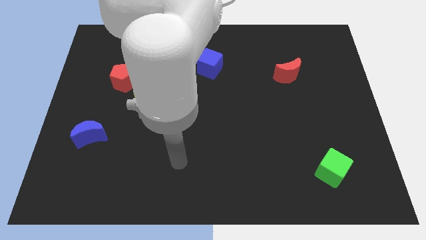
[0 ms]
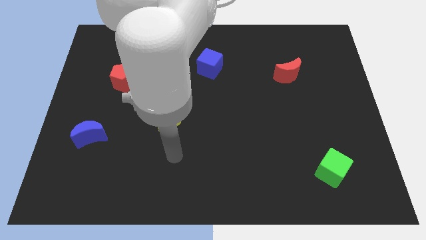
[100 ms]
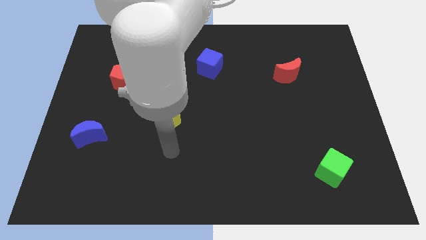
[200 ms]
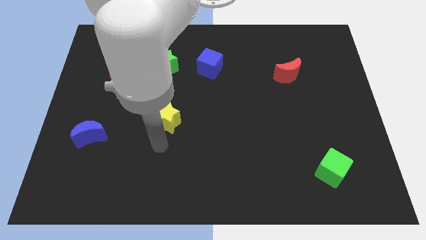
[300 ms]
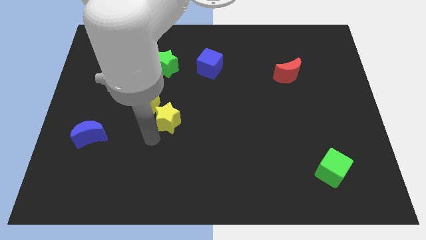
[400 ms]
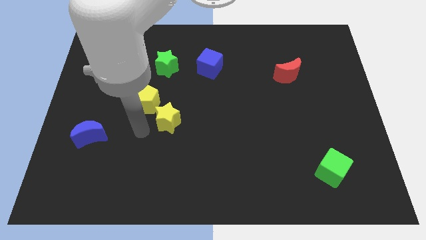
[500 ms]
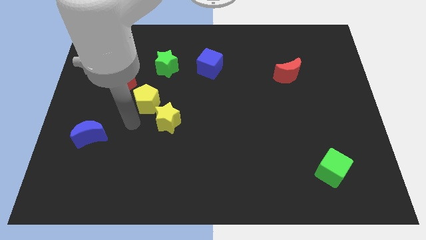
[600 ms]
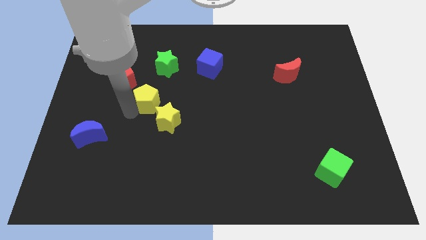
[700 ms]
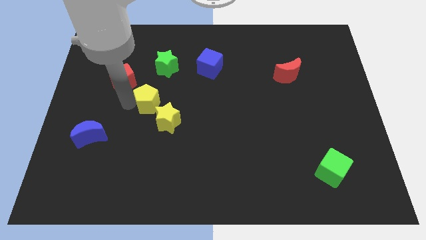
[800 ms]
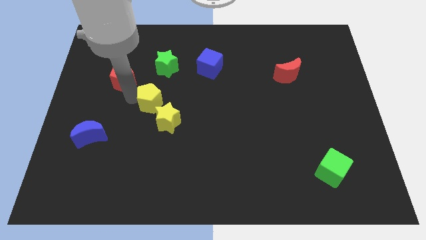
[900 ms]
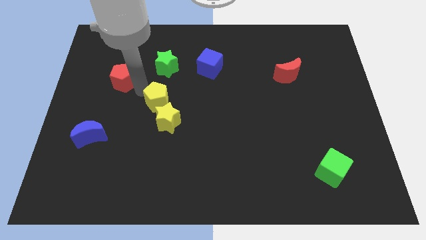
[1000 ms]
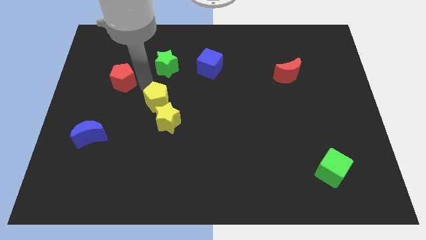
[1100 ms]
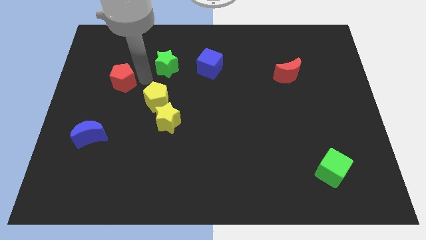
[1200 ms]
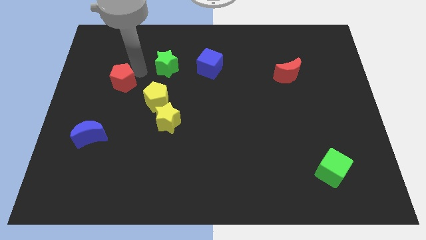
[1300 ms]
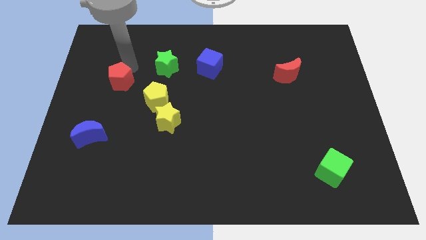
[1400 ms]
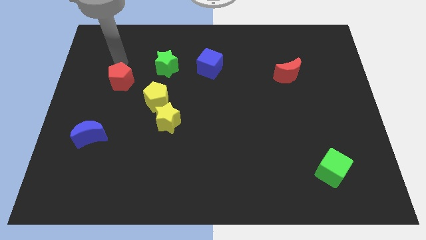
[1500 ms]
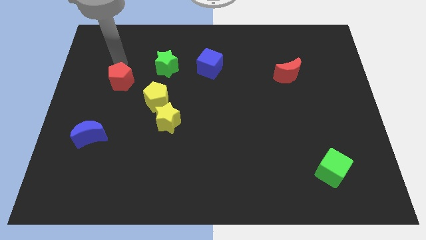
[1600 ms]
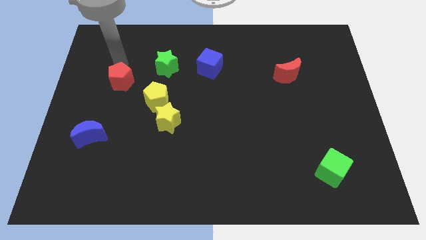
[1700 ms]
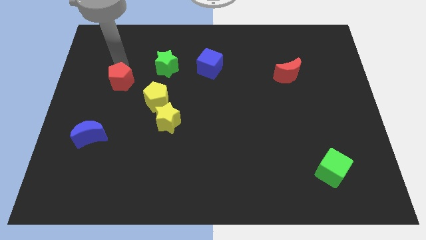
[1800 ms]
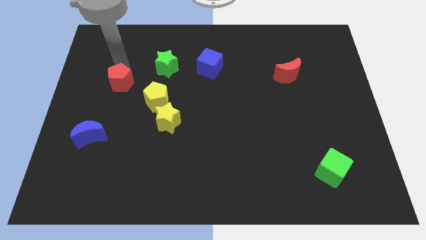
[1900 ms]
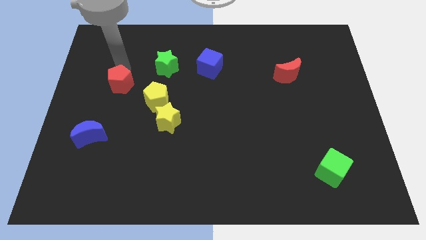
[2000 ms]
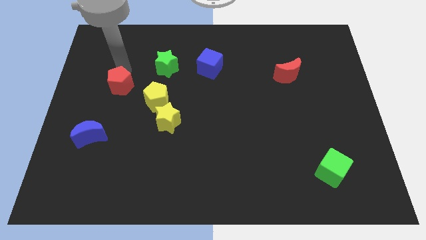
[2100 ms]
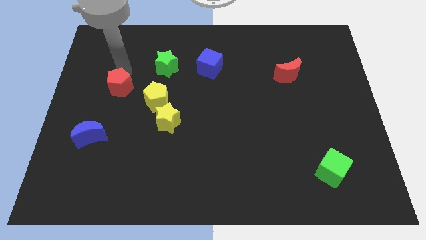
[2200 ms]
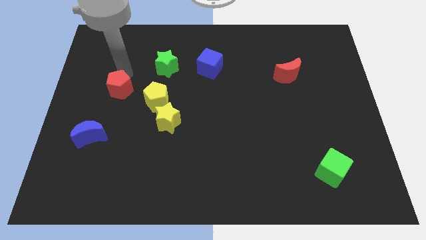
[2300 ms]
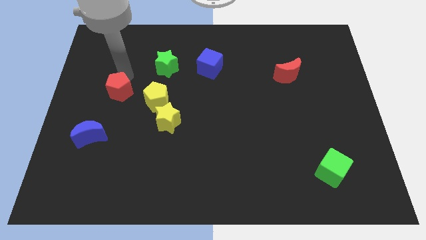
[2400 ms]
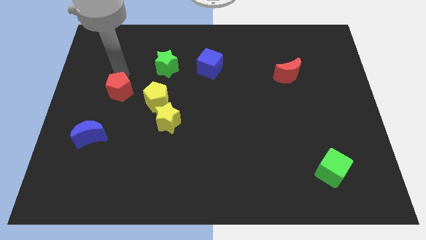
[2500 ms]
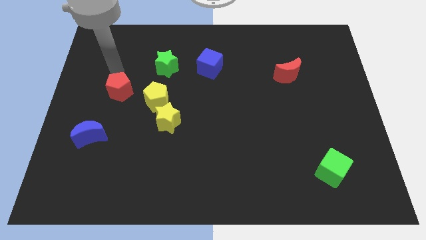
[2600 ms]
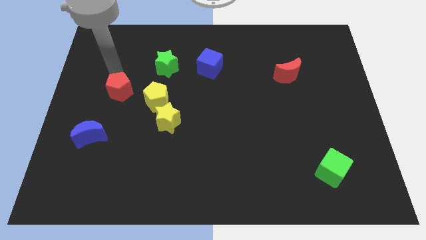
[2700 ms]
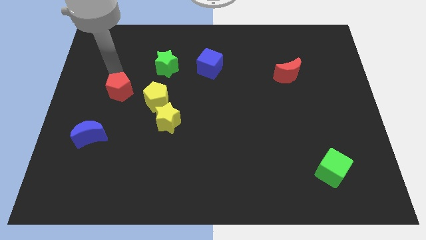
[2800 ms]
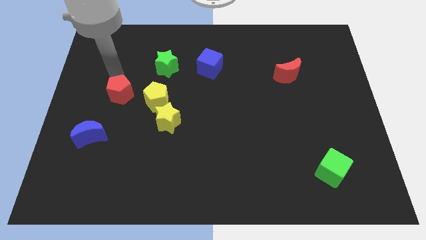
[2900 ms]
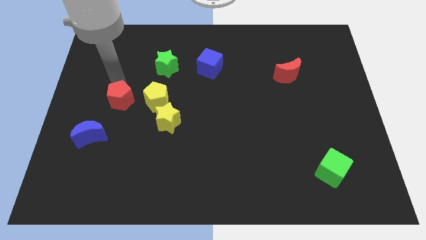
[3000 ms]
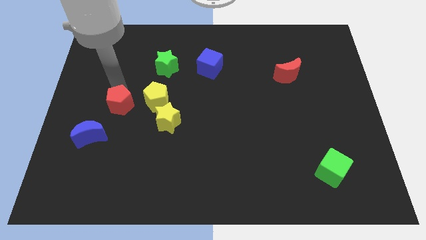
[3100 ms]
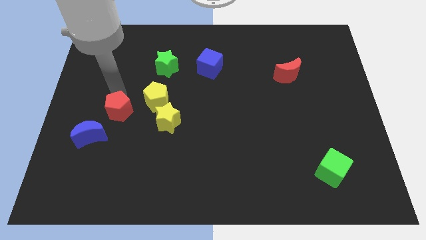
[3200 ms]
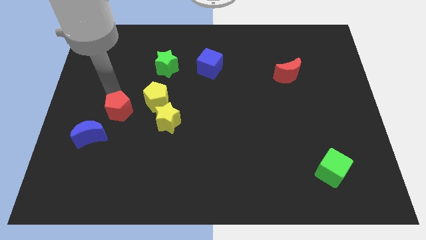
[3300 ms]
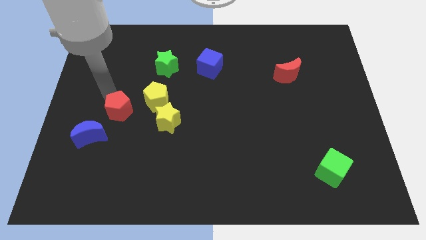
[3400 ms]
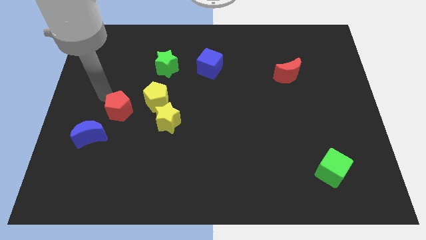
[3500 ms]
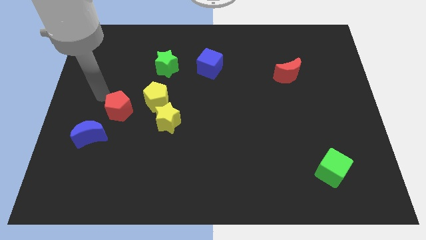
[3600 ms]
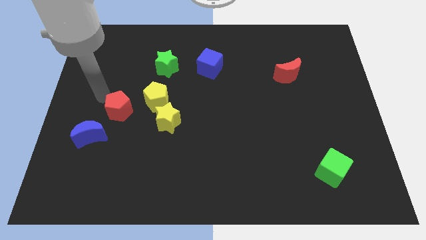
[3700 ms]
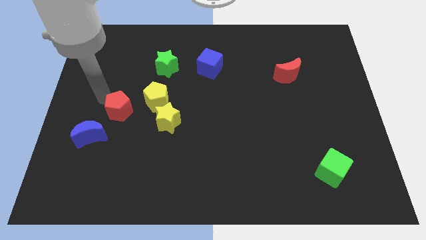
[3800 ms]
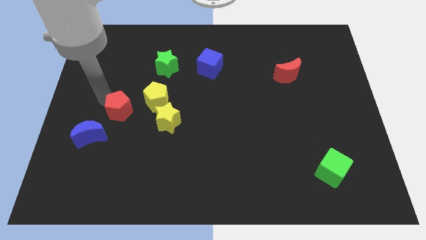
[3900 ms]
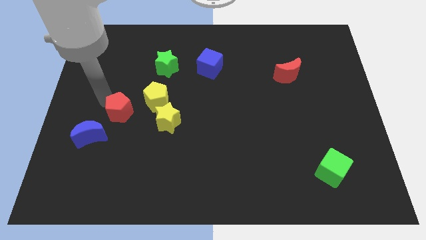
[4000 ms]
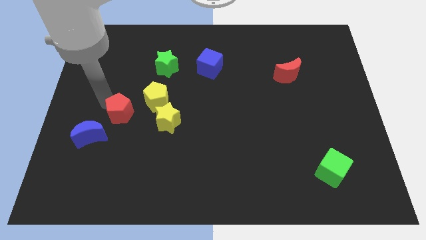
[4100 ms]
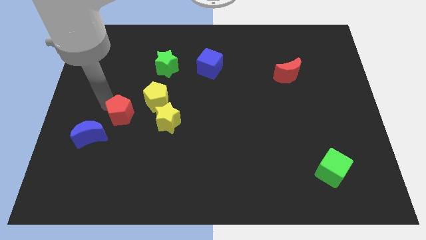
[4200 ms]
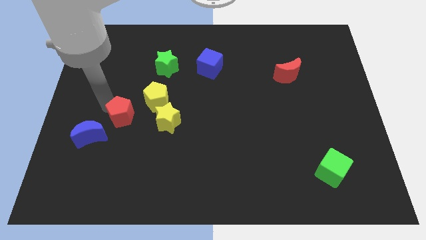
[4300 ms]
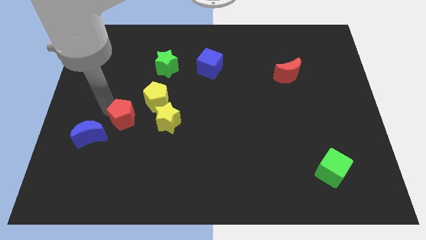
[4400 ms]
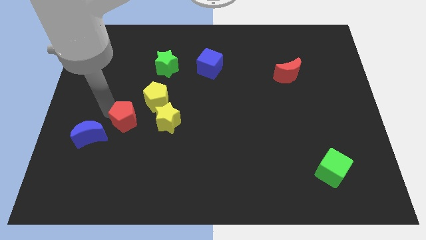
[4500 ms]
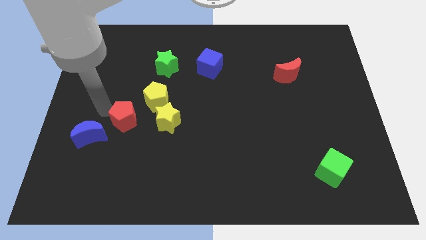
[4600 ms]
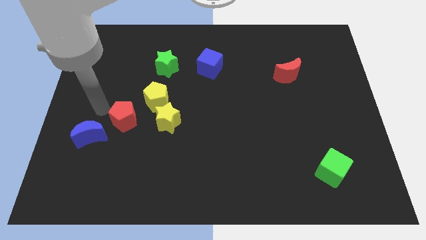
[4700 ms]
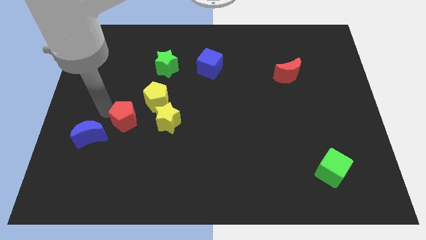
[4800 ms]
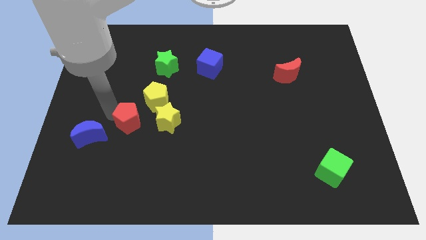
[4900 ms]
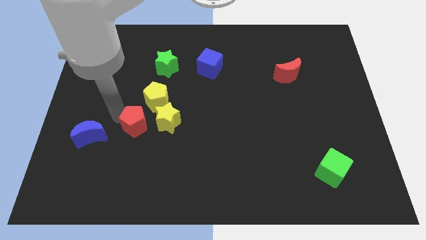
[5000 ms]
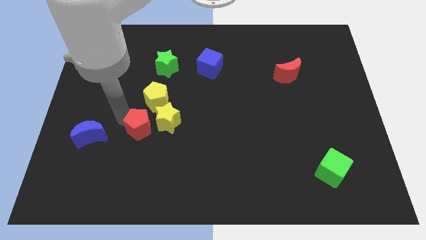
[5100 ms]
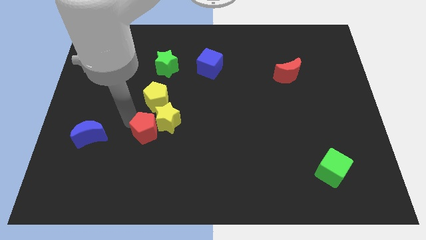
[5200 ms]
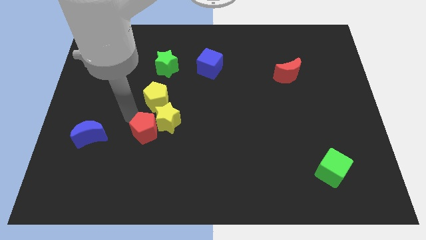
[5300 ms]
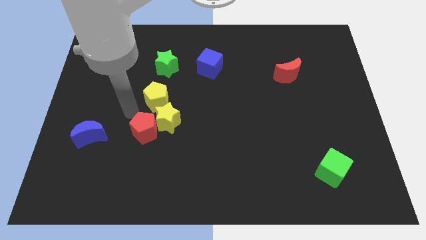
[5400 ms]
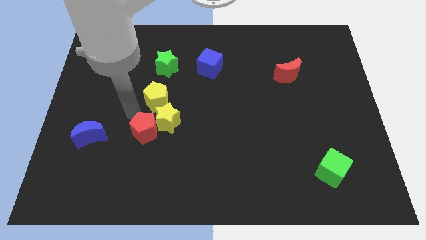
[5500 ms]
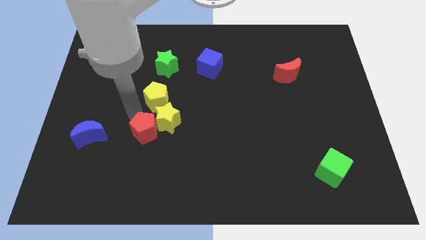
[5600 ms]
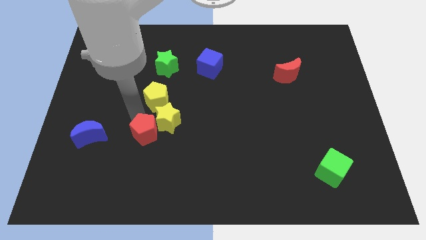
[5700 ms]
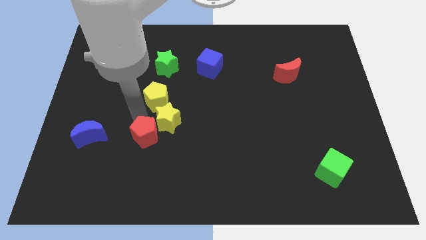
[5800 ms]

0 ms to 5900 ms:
push the red pentagon to the bottom of the yellow star

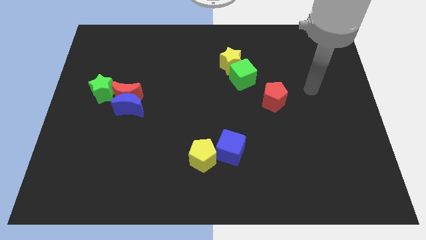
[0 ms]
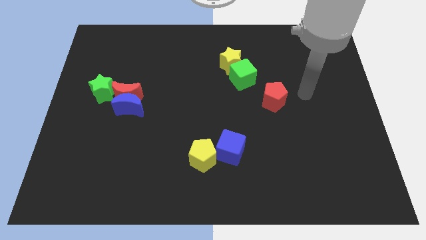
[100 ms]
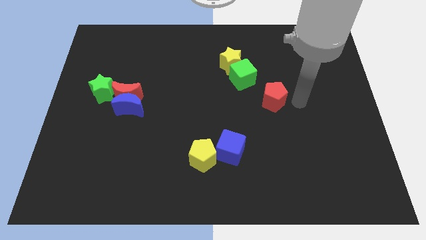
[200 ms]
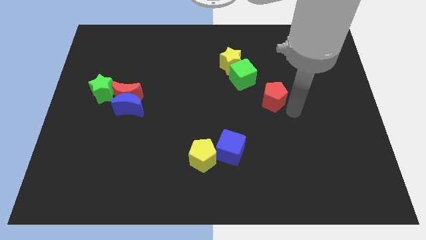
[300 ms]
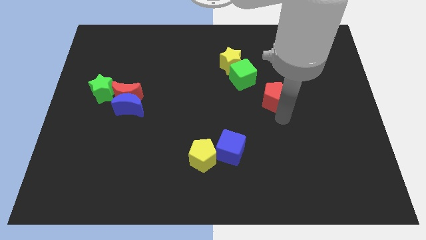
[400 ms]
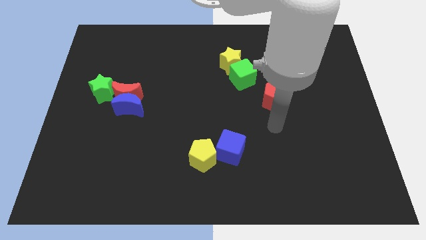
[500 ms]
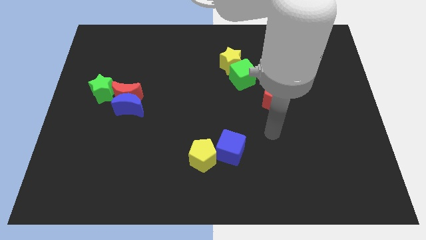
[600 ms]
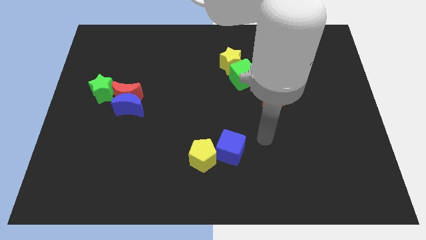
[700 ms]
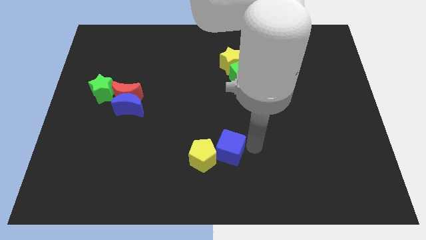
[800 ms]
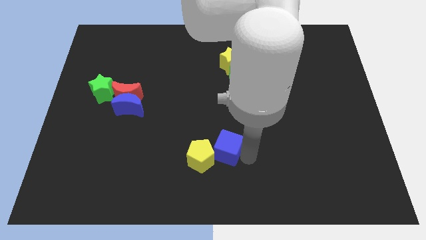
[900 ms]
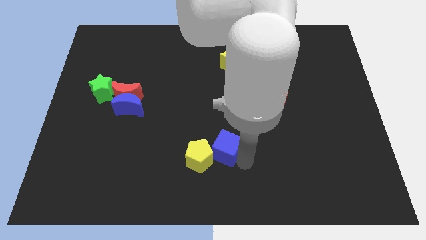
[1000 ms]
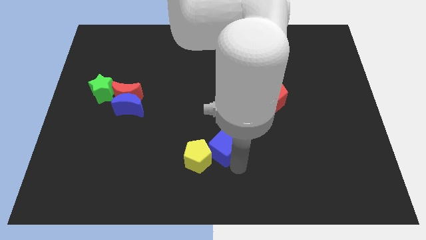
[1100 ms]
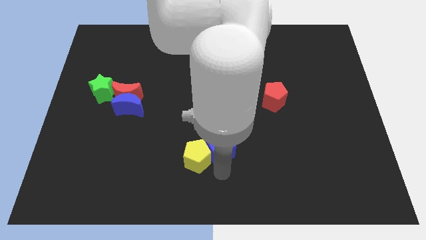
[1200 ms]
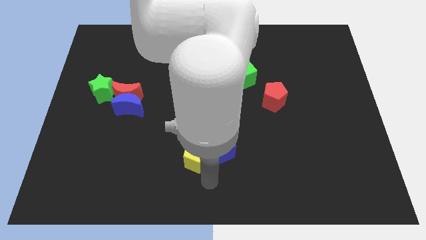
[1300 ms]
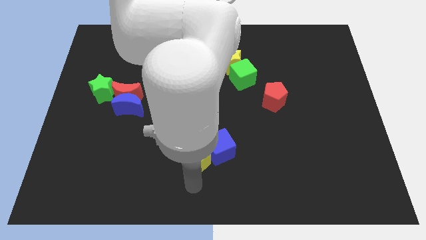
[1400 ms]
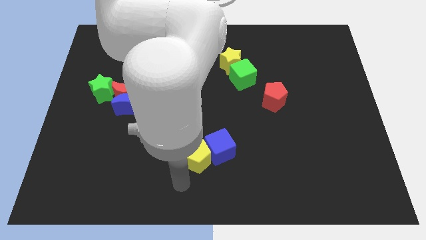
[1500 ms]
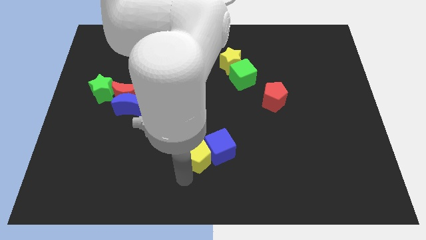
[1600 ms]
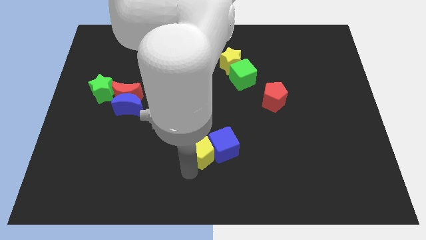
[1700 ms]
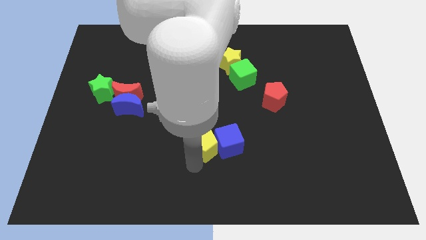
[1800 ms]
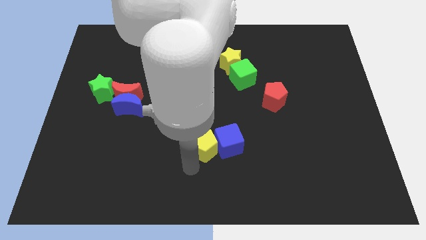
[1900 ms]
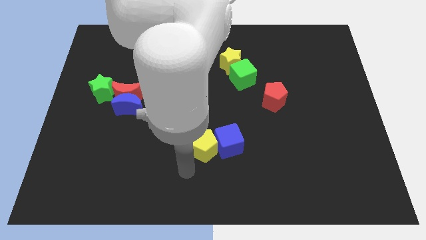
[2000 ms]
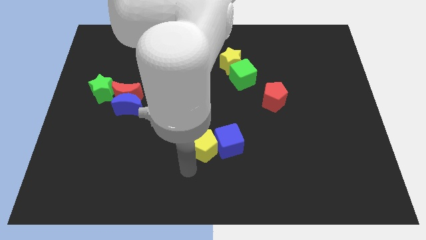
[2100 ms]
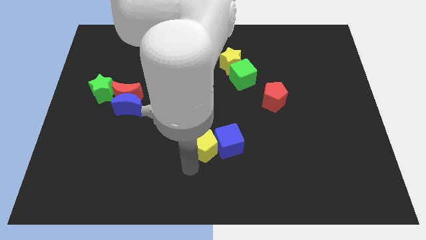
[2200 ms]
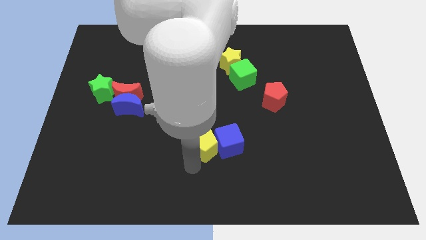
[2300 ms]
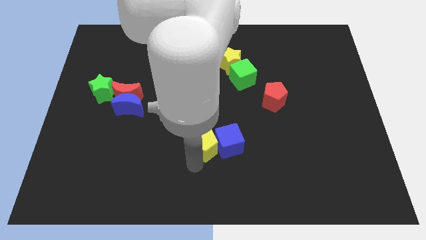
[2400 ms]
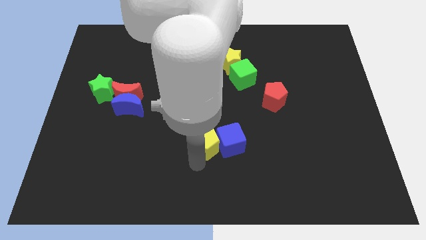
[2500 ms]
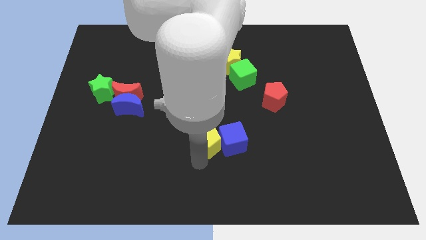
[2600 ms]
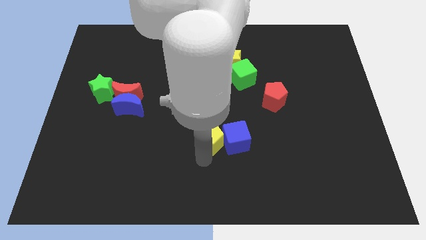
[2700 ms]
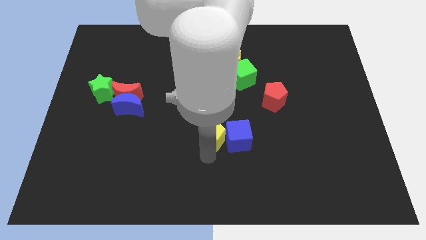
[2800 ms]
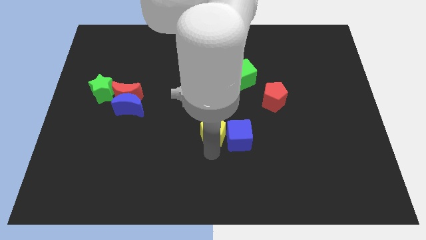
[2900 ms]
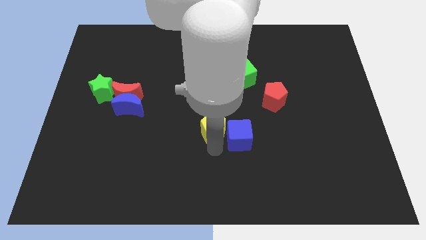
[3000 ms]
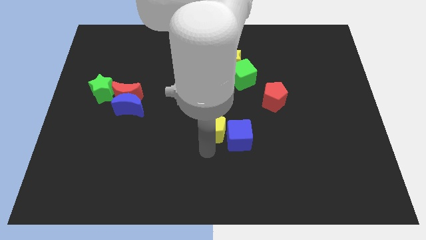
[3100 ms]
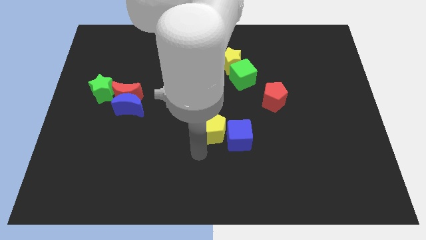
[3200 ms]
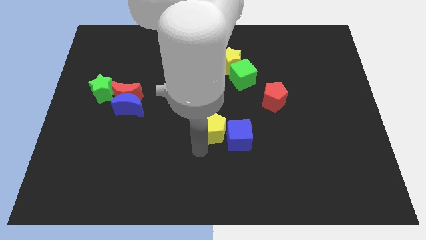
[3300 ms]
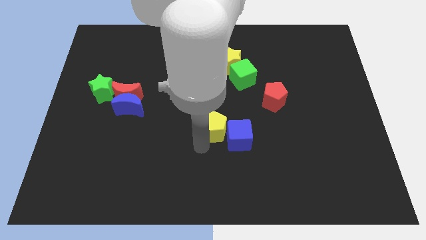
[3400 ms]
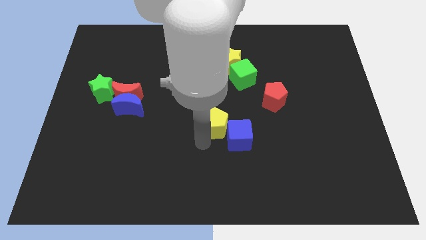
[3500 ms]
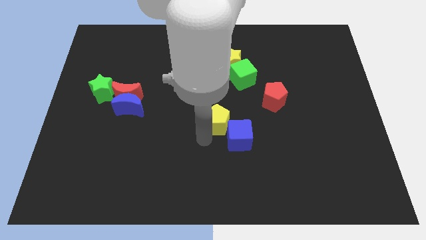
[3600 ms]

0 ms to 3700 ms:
push the yellow pentagon to the top of the blue cube
